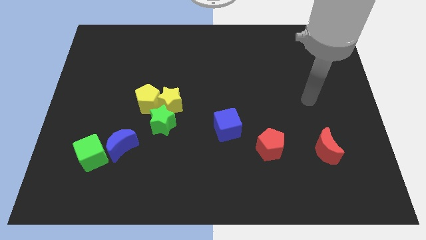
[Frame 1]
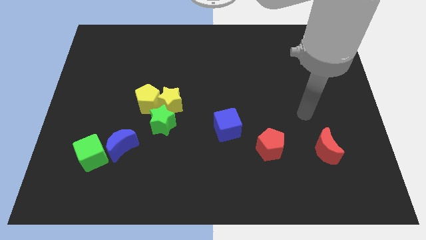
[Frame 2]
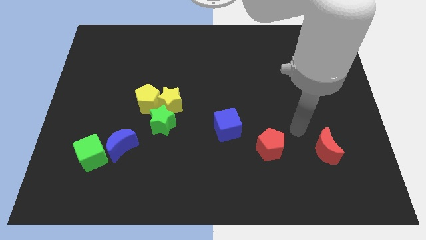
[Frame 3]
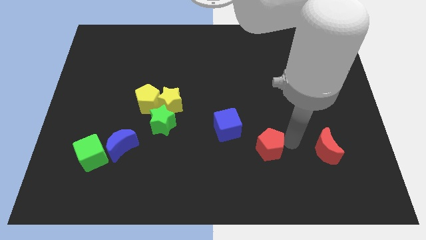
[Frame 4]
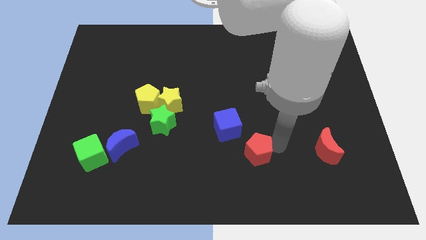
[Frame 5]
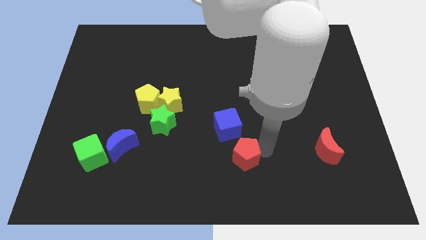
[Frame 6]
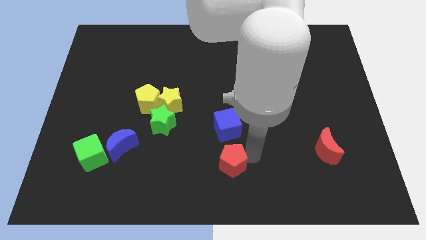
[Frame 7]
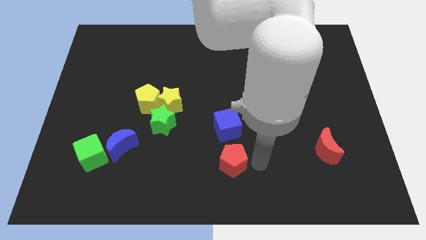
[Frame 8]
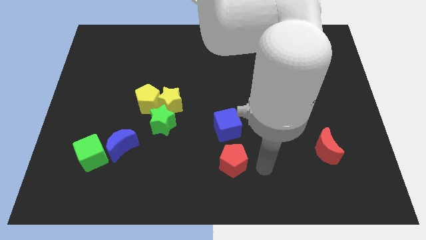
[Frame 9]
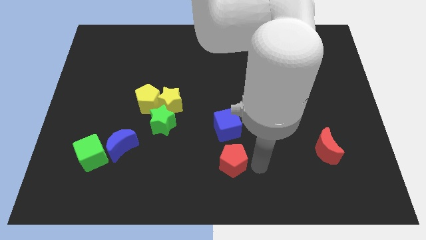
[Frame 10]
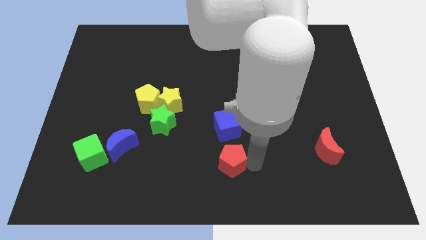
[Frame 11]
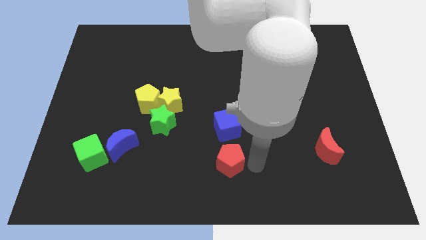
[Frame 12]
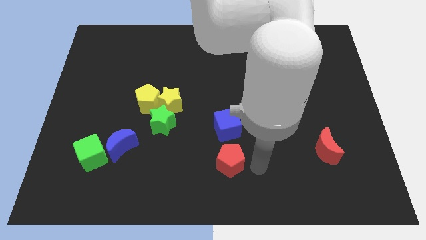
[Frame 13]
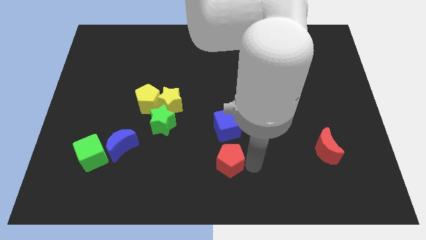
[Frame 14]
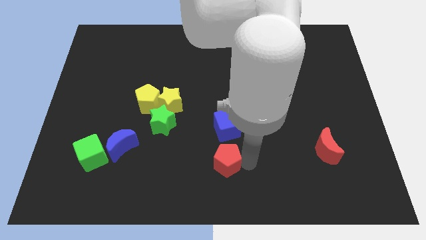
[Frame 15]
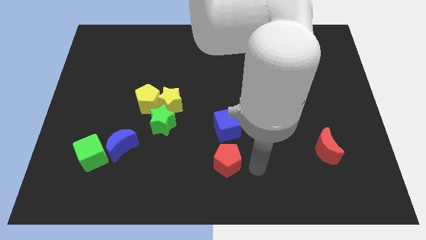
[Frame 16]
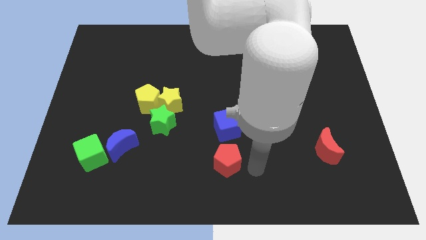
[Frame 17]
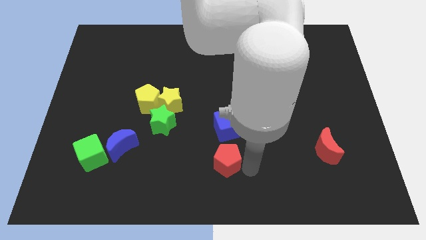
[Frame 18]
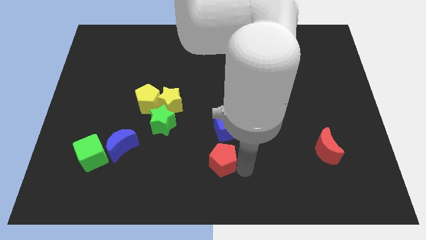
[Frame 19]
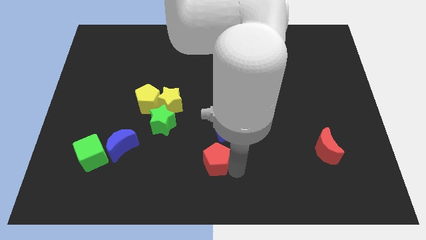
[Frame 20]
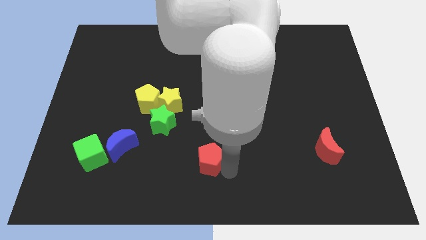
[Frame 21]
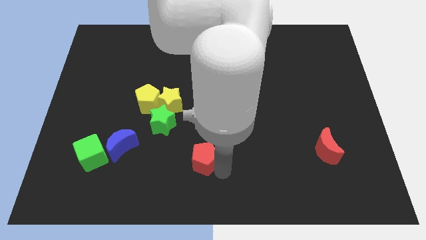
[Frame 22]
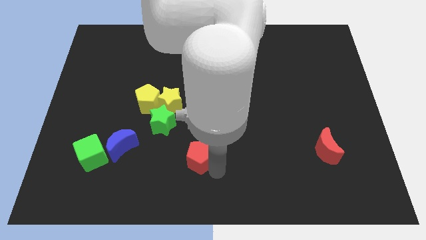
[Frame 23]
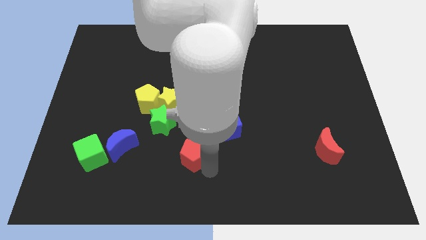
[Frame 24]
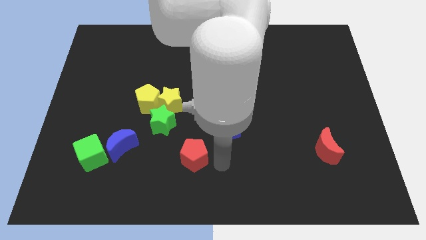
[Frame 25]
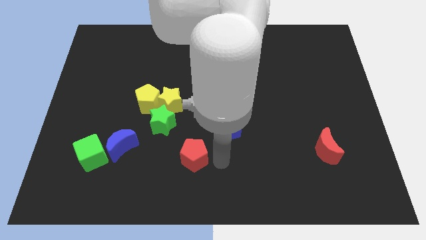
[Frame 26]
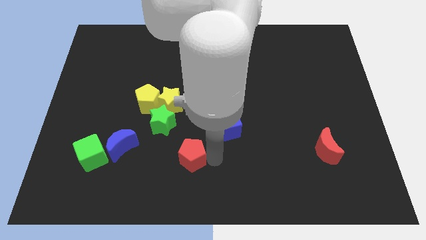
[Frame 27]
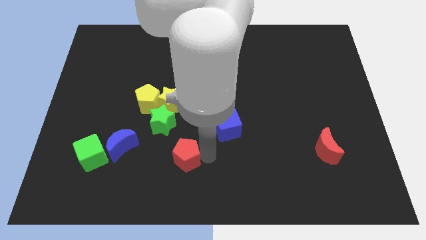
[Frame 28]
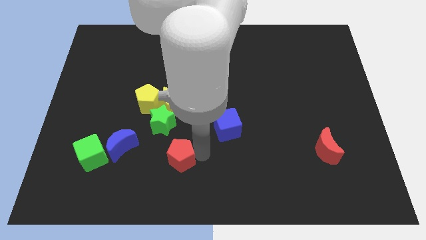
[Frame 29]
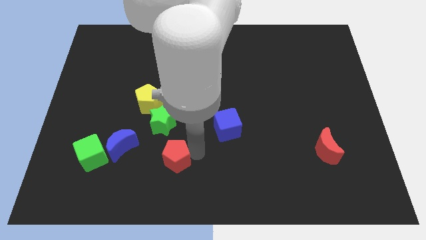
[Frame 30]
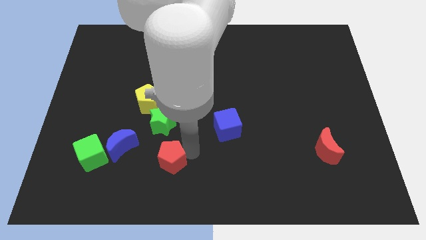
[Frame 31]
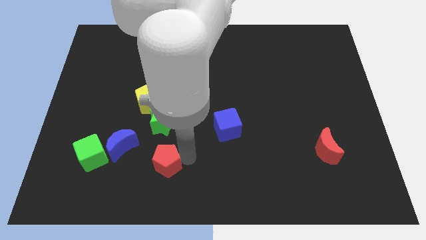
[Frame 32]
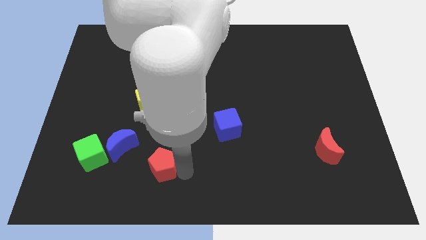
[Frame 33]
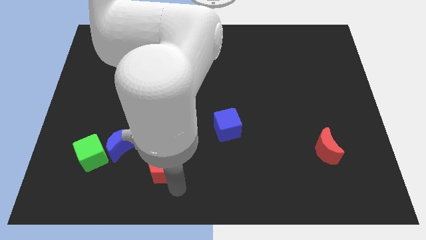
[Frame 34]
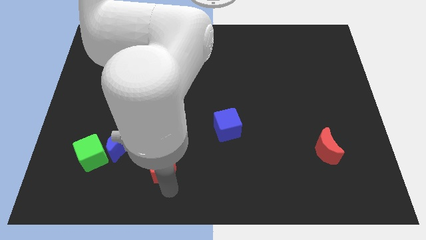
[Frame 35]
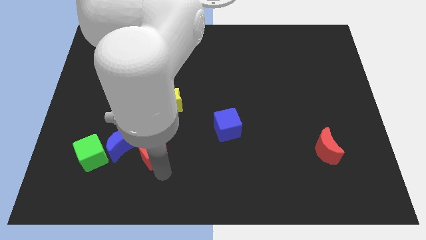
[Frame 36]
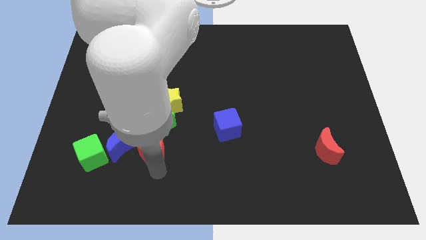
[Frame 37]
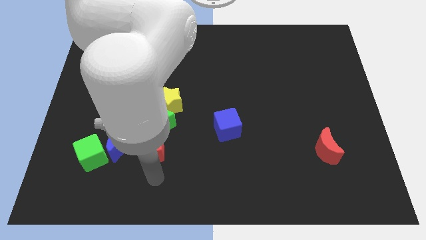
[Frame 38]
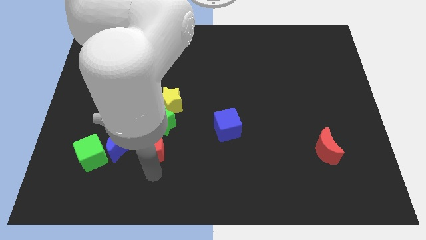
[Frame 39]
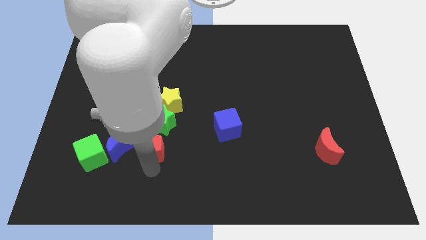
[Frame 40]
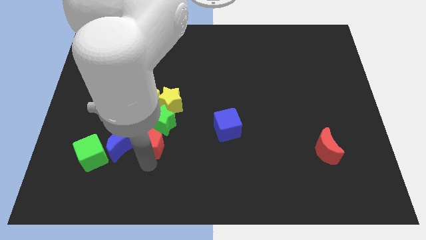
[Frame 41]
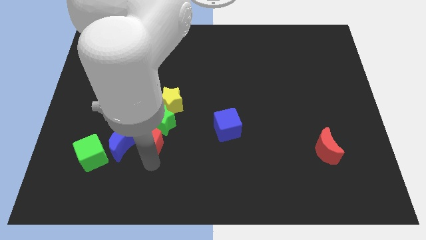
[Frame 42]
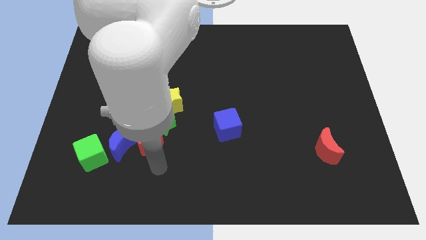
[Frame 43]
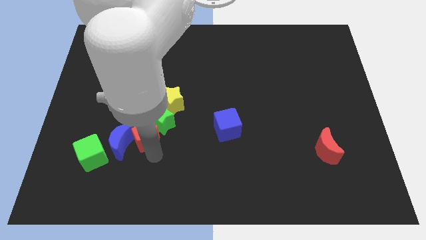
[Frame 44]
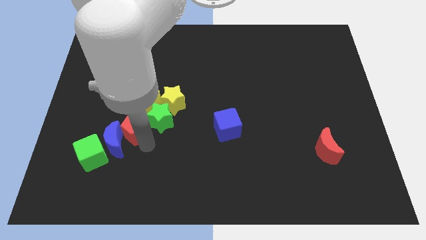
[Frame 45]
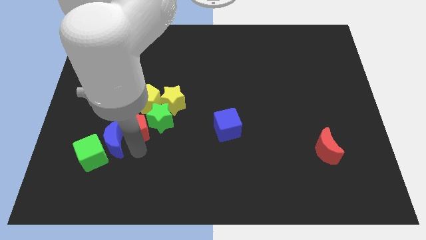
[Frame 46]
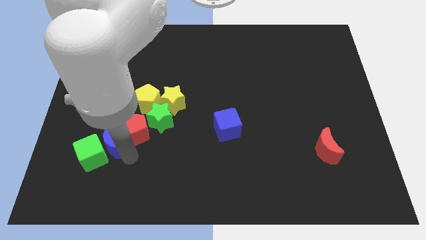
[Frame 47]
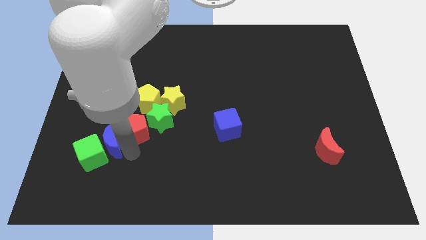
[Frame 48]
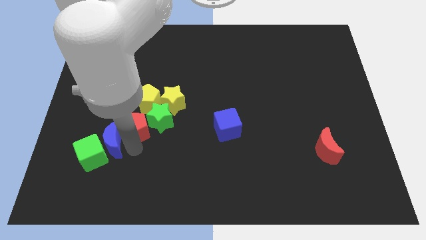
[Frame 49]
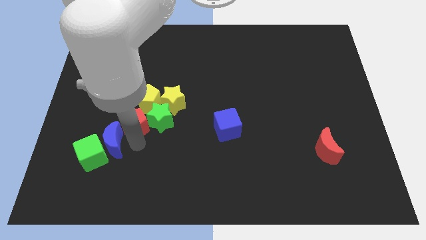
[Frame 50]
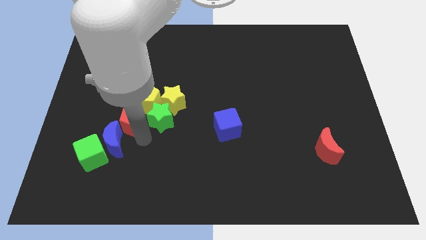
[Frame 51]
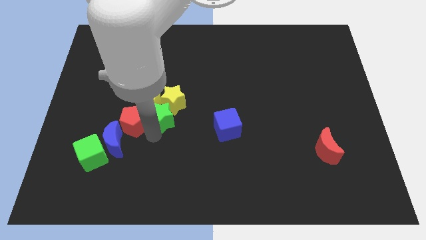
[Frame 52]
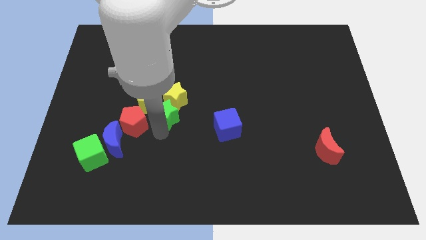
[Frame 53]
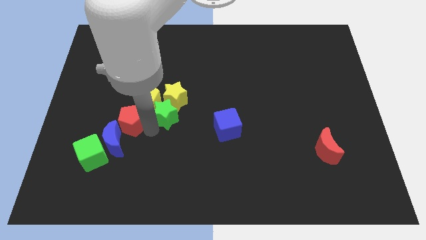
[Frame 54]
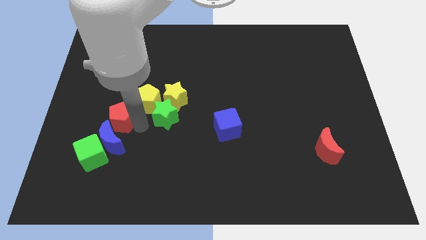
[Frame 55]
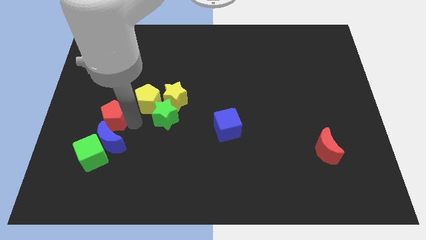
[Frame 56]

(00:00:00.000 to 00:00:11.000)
put the red pentagon diagonally up and to the left of the blue moon

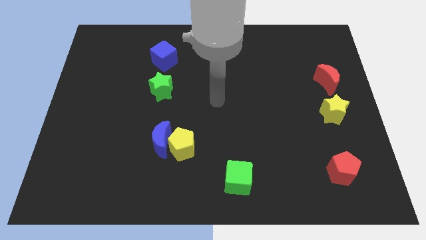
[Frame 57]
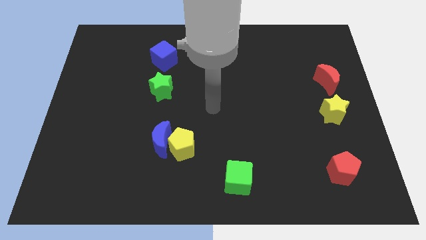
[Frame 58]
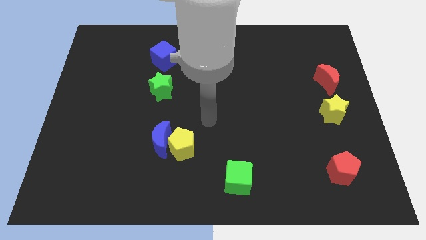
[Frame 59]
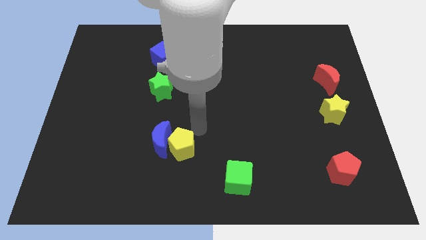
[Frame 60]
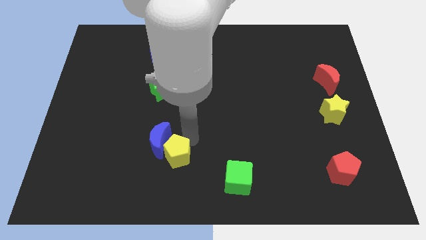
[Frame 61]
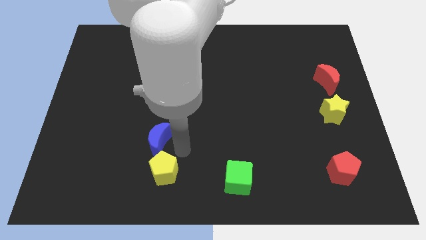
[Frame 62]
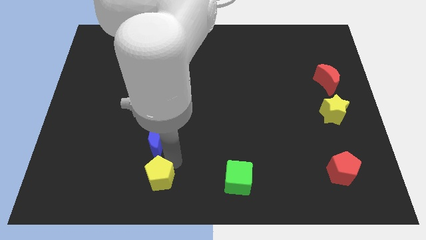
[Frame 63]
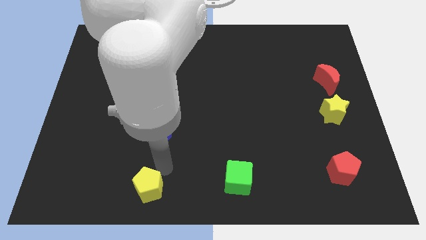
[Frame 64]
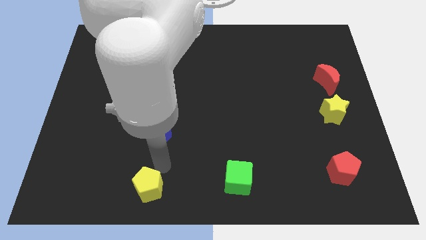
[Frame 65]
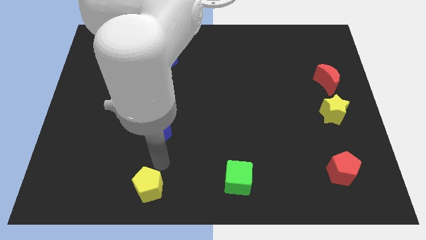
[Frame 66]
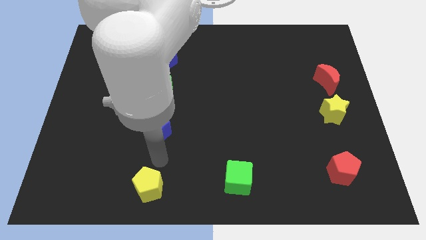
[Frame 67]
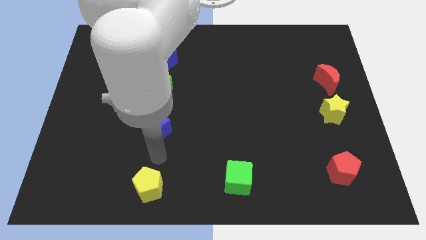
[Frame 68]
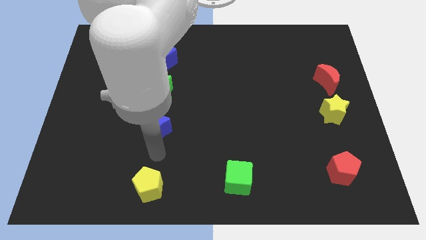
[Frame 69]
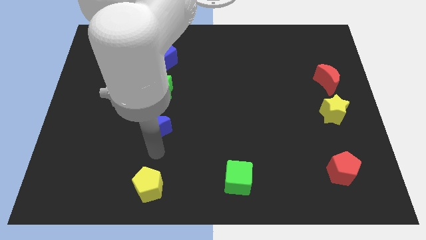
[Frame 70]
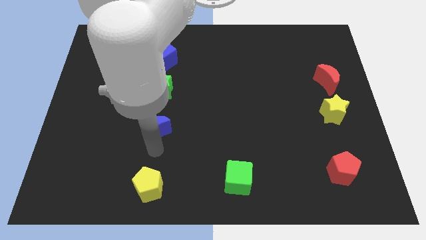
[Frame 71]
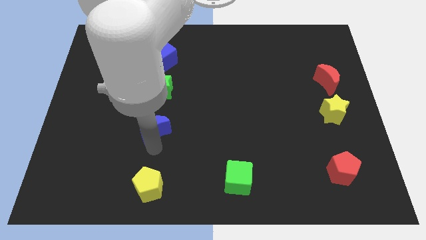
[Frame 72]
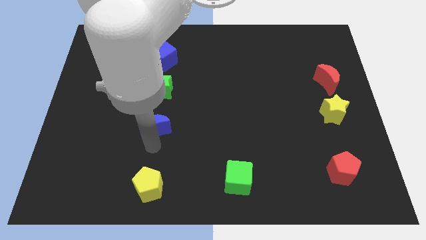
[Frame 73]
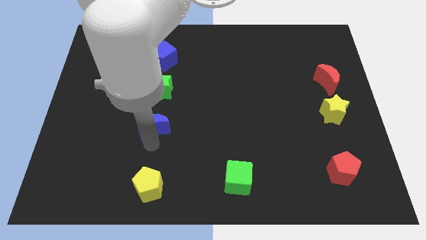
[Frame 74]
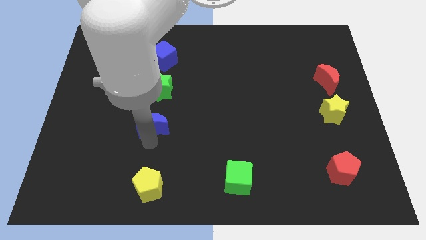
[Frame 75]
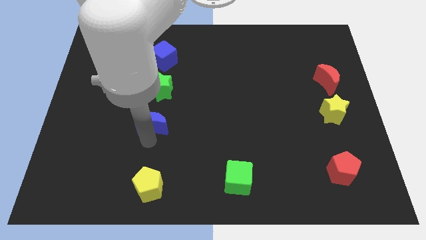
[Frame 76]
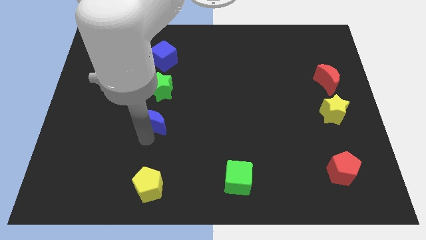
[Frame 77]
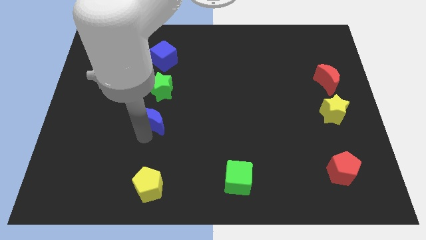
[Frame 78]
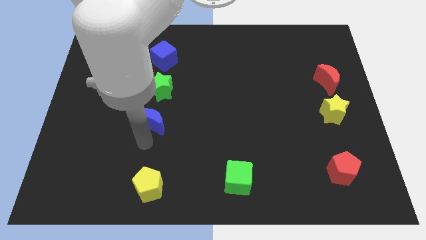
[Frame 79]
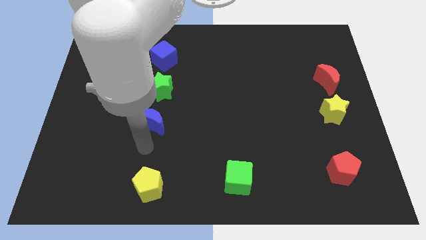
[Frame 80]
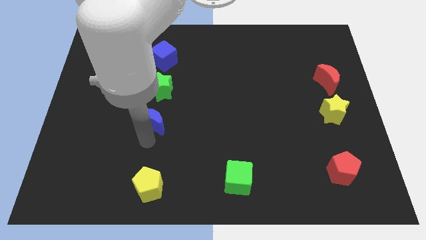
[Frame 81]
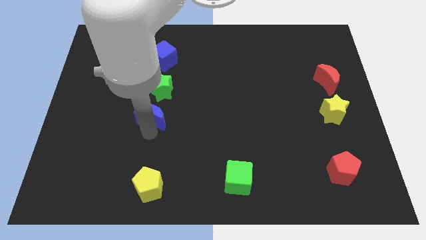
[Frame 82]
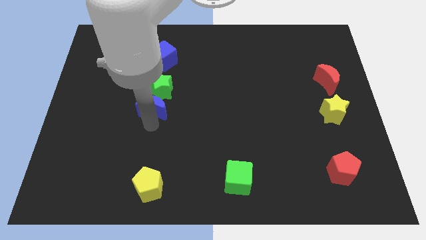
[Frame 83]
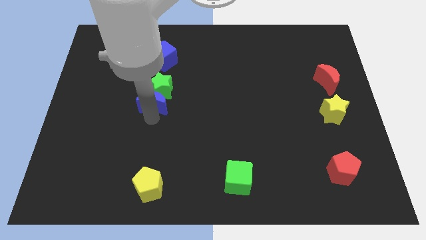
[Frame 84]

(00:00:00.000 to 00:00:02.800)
move the blue moon to the bottom side of the blue cube
